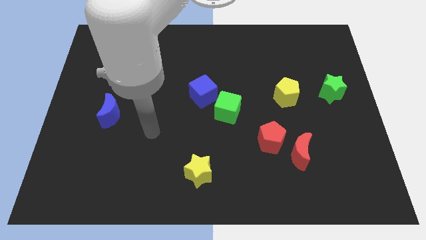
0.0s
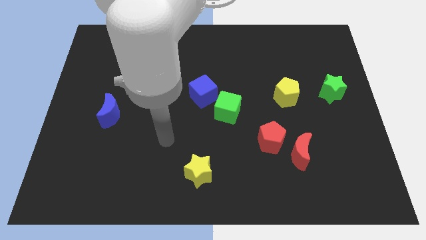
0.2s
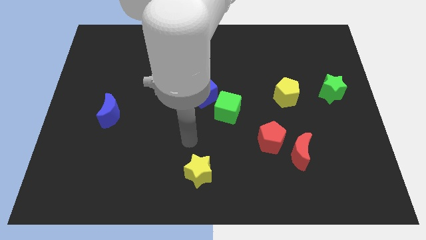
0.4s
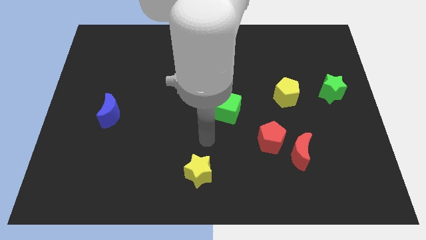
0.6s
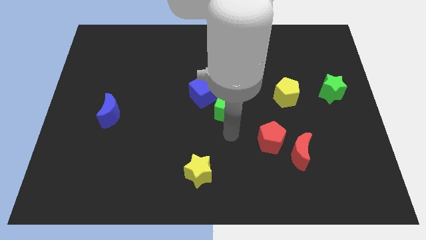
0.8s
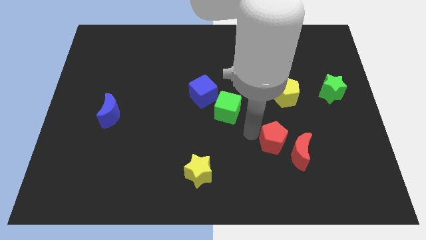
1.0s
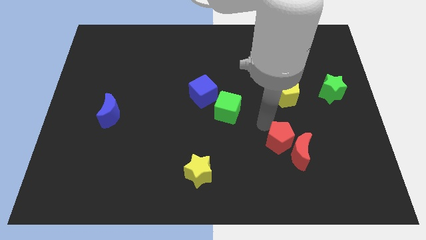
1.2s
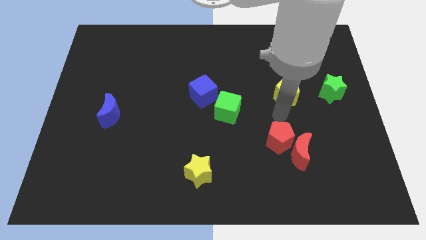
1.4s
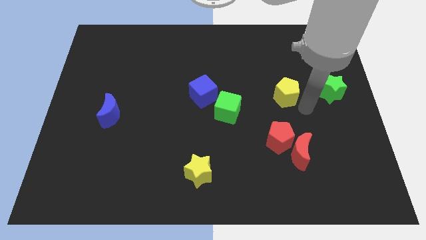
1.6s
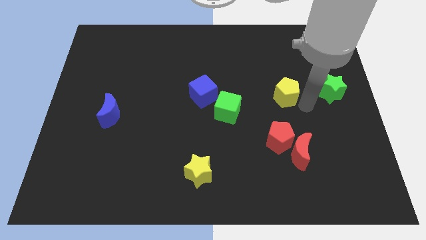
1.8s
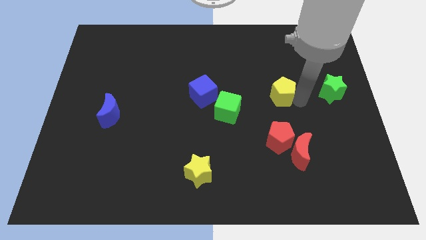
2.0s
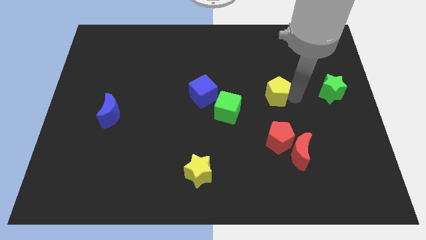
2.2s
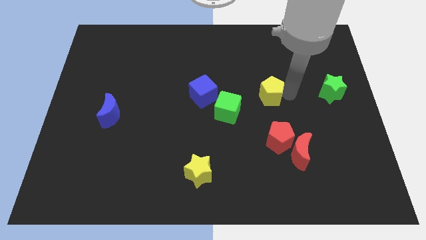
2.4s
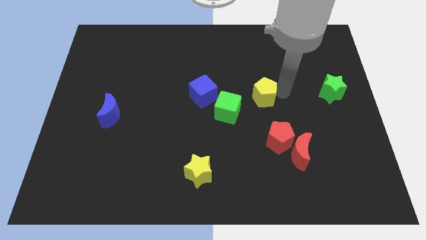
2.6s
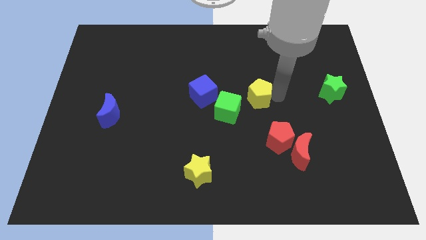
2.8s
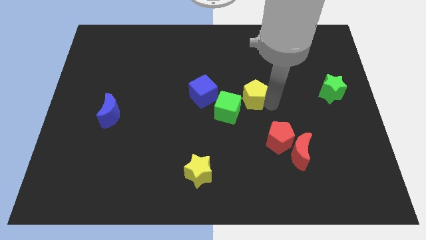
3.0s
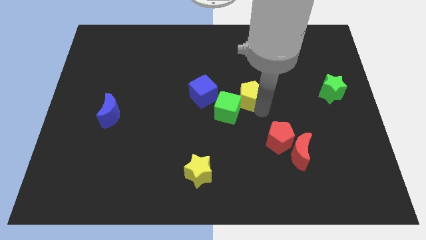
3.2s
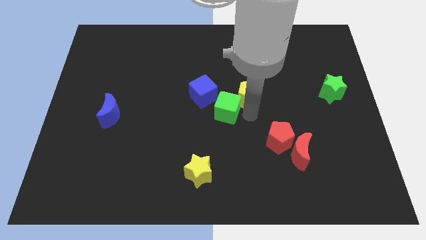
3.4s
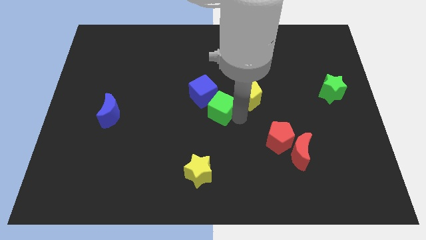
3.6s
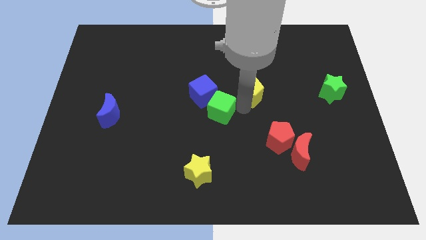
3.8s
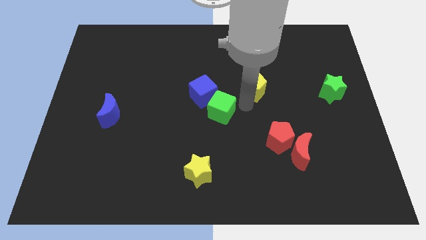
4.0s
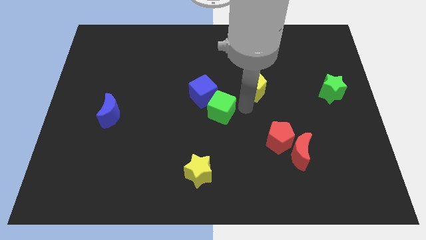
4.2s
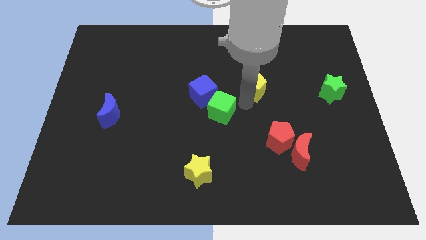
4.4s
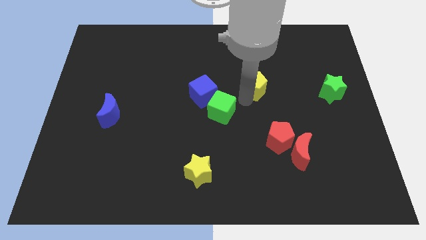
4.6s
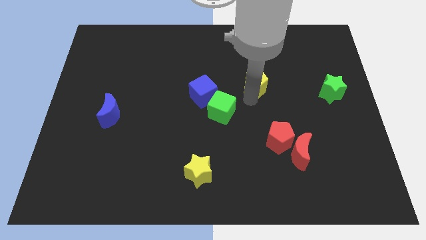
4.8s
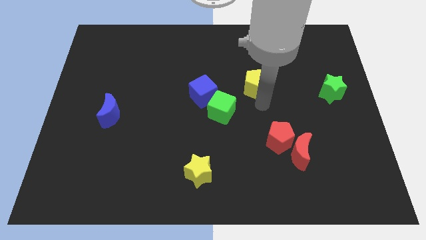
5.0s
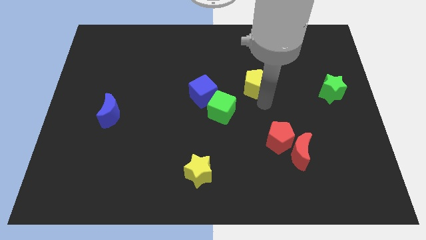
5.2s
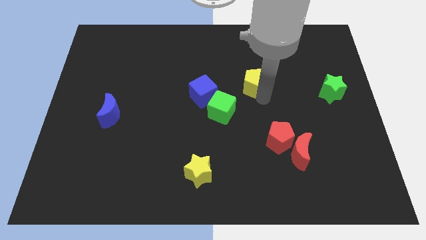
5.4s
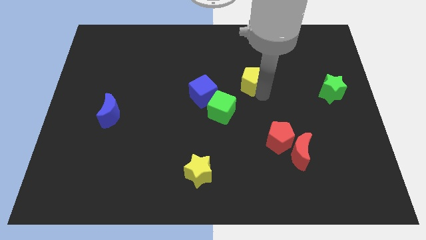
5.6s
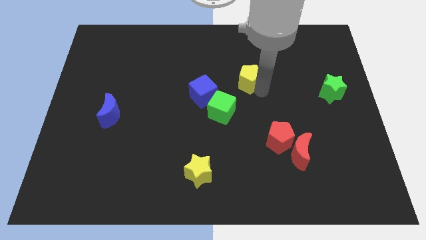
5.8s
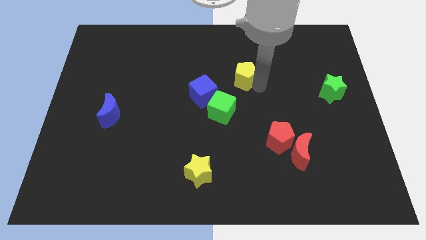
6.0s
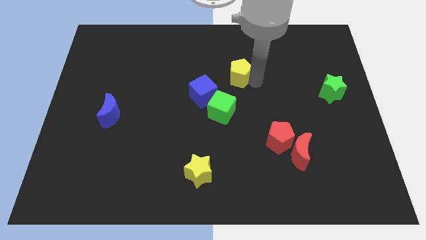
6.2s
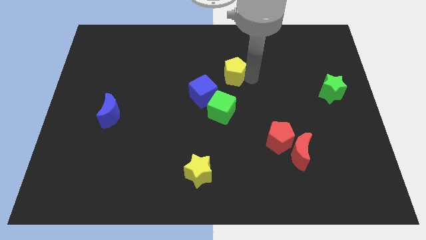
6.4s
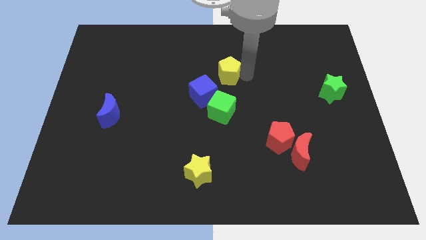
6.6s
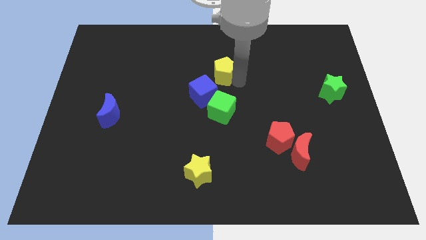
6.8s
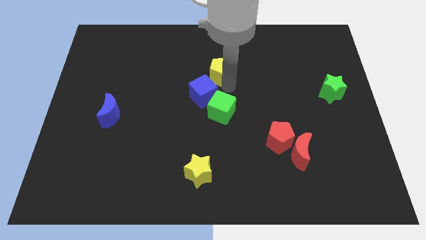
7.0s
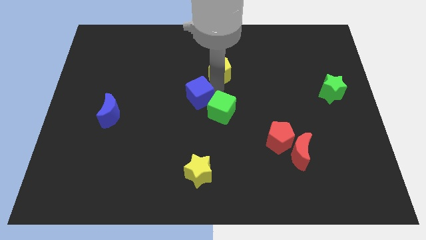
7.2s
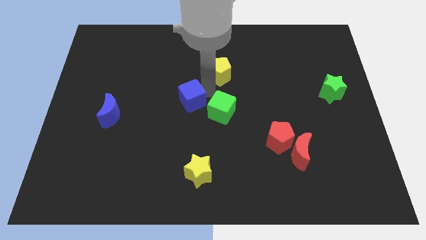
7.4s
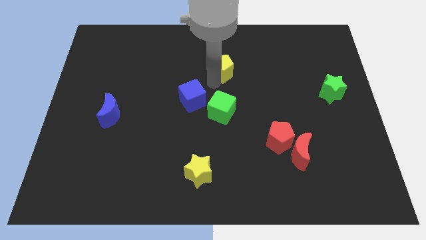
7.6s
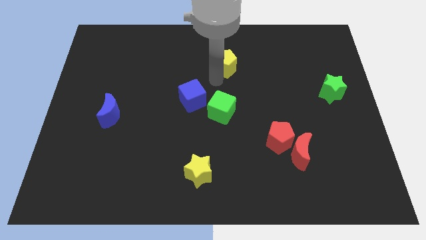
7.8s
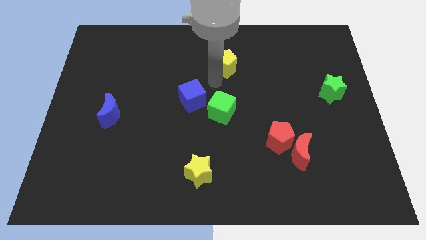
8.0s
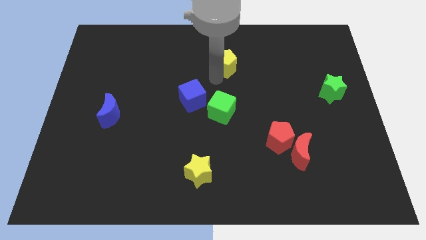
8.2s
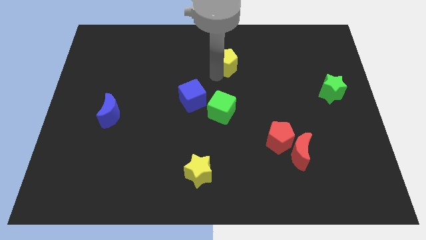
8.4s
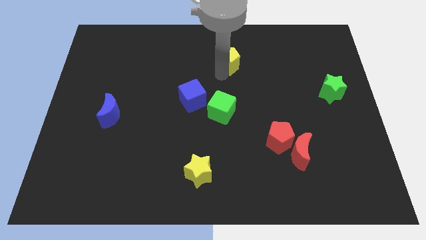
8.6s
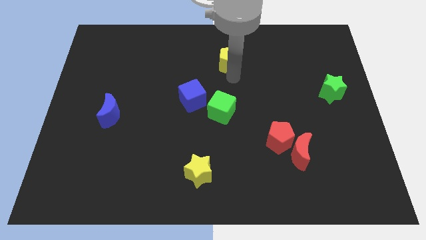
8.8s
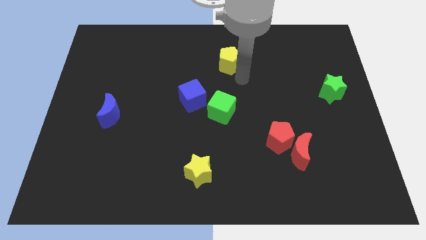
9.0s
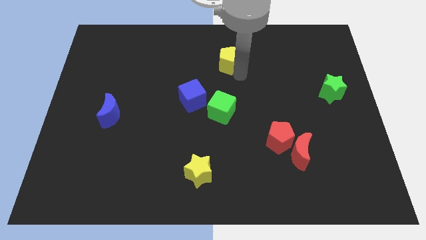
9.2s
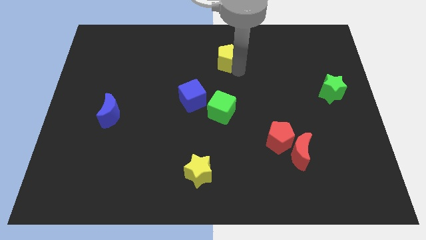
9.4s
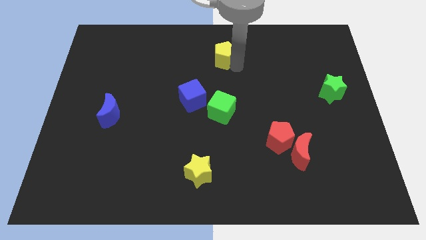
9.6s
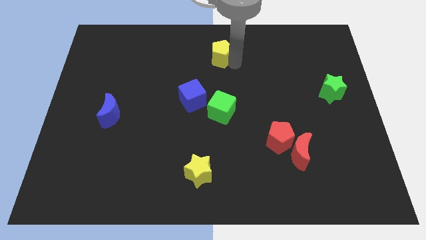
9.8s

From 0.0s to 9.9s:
put the yellow pentagon to the top

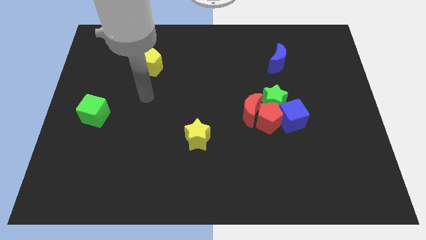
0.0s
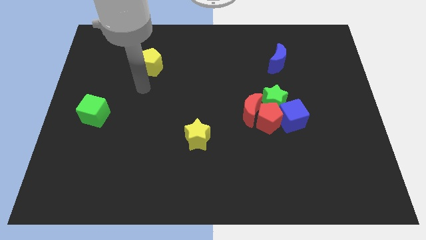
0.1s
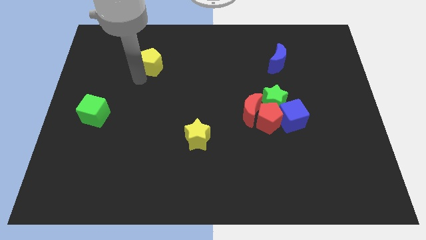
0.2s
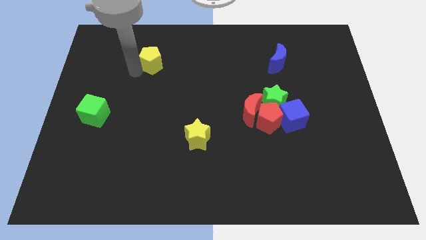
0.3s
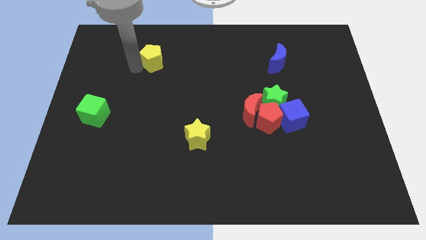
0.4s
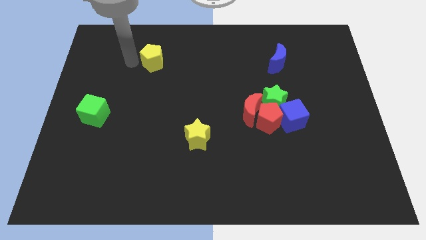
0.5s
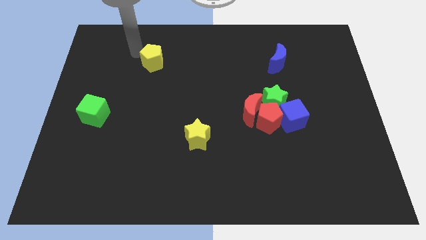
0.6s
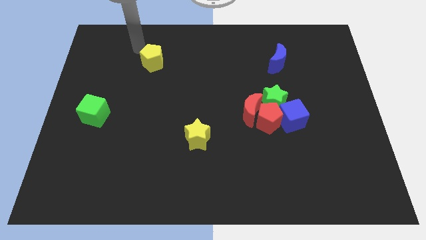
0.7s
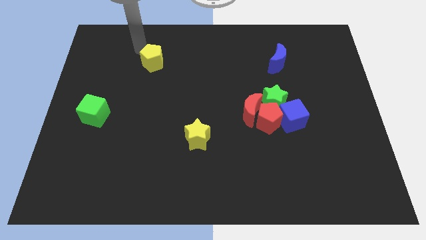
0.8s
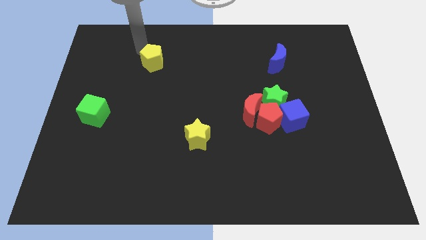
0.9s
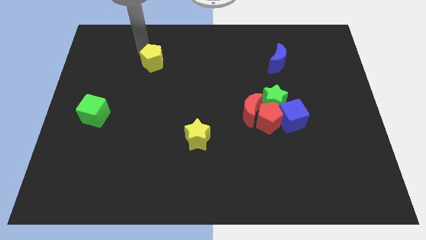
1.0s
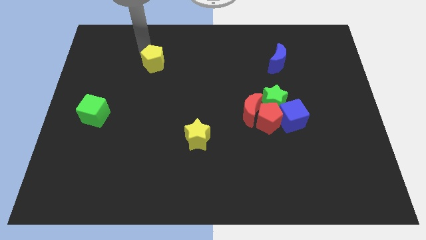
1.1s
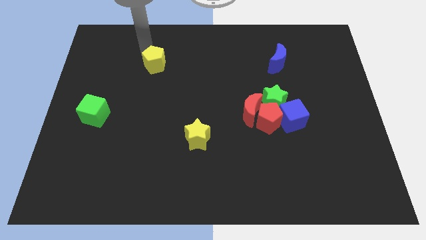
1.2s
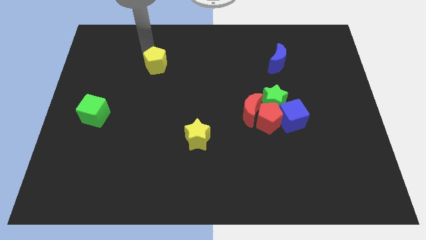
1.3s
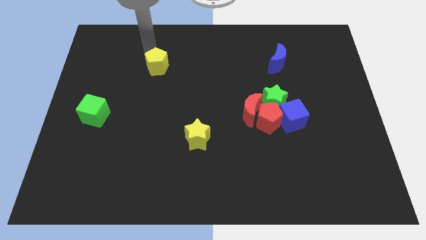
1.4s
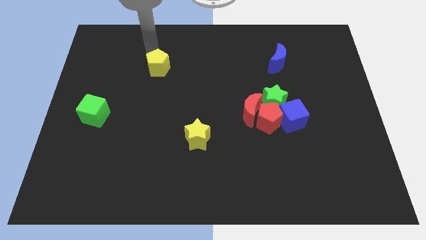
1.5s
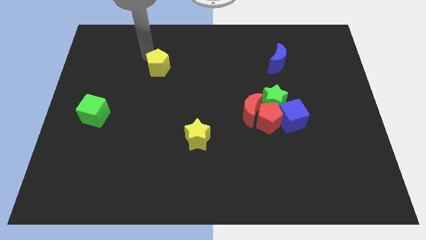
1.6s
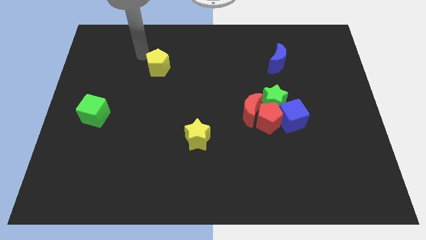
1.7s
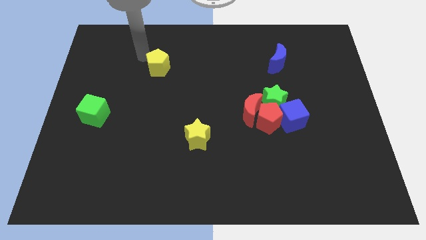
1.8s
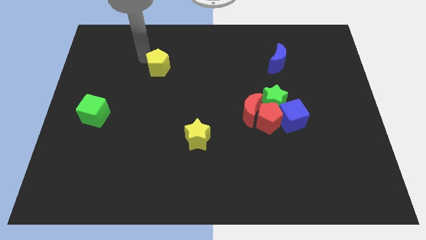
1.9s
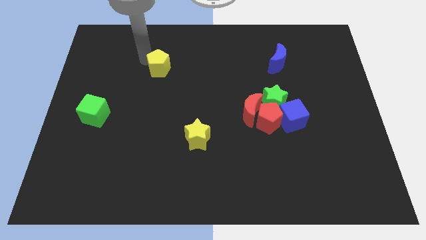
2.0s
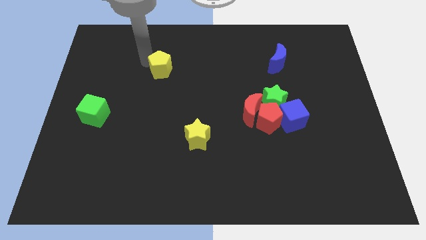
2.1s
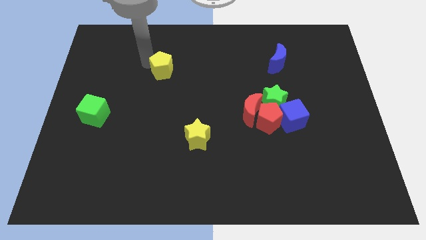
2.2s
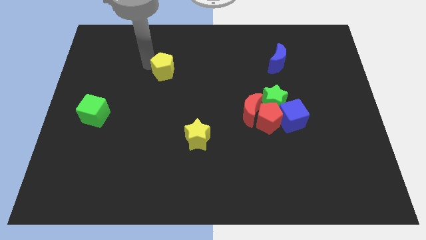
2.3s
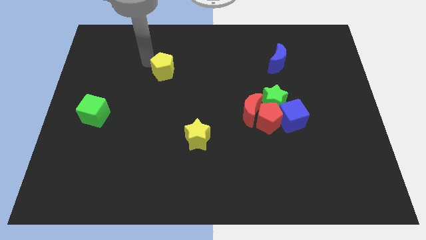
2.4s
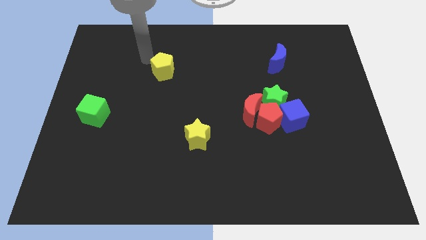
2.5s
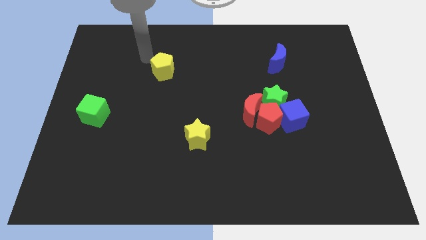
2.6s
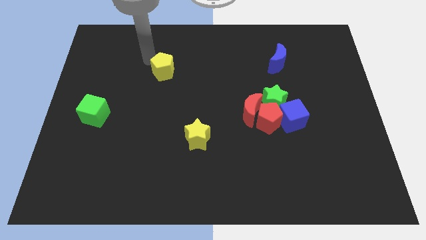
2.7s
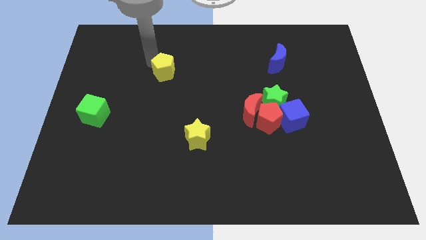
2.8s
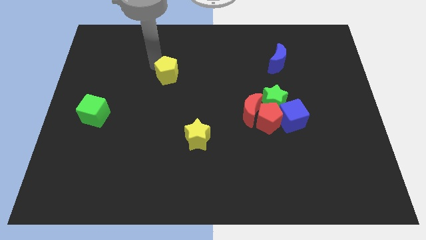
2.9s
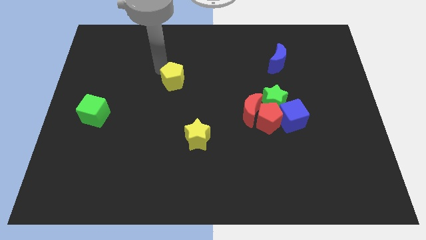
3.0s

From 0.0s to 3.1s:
push the yellow pentagon to the center
